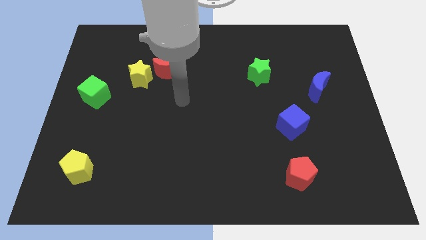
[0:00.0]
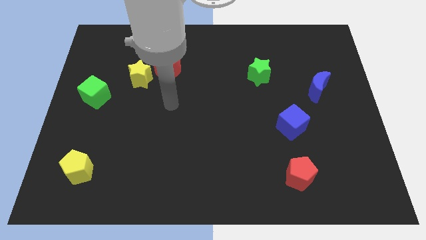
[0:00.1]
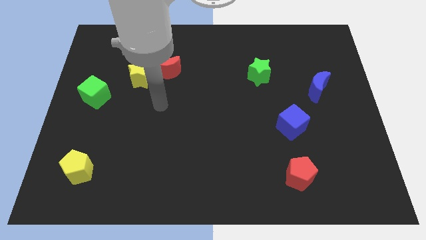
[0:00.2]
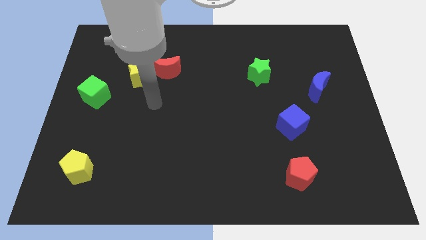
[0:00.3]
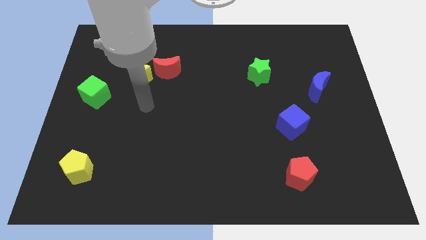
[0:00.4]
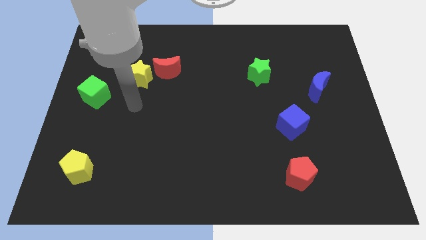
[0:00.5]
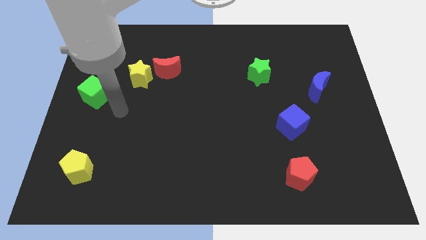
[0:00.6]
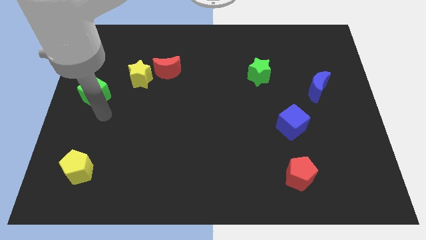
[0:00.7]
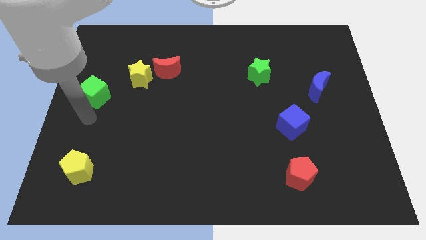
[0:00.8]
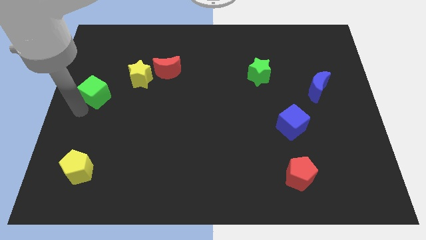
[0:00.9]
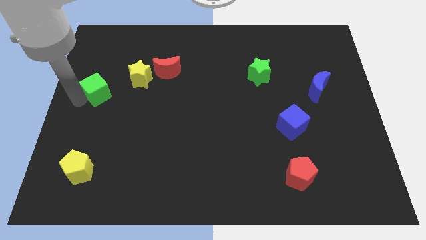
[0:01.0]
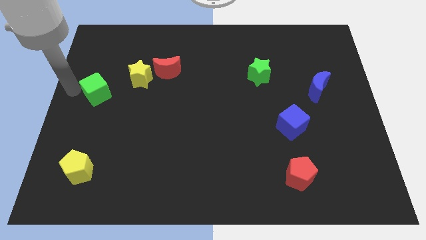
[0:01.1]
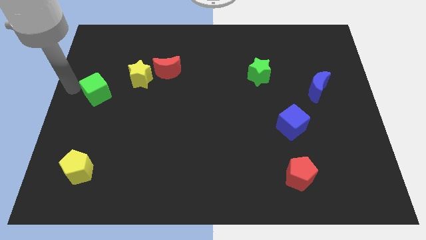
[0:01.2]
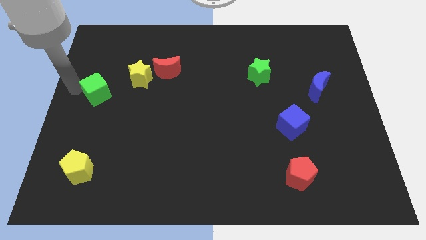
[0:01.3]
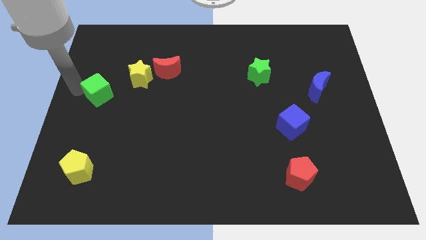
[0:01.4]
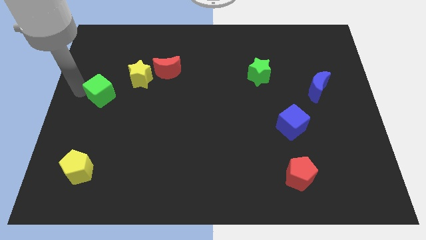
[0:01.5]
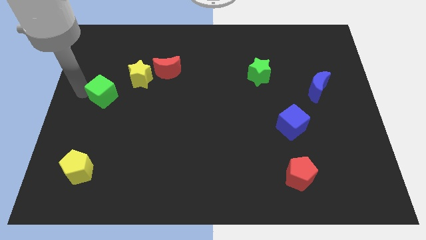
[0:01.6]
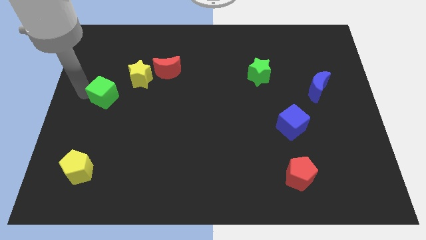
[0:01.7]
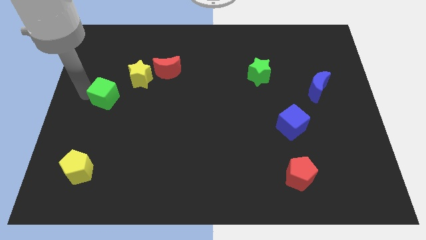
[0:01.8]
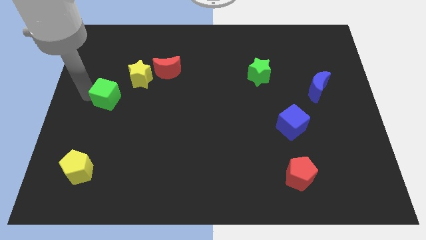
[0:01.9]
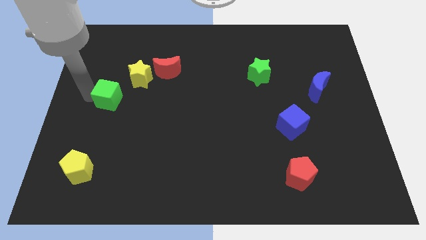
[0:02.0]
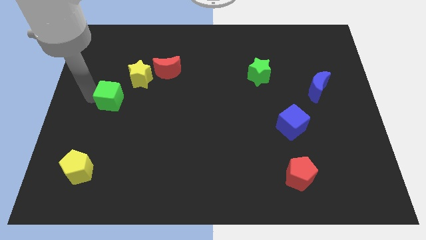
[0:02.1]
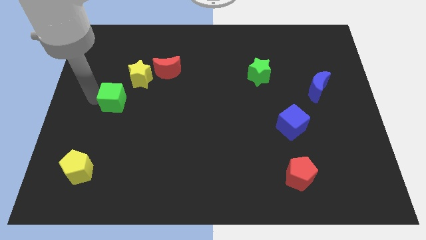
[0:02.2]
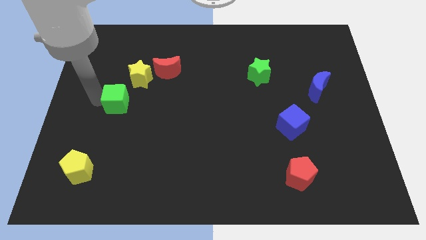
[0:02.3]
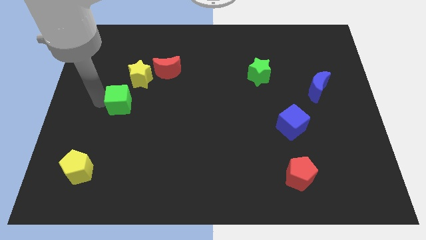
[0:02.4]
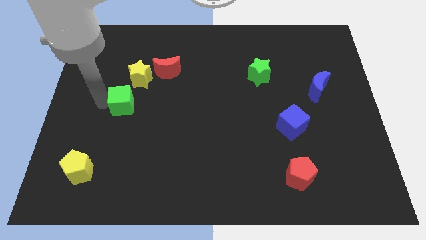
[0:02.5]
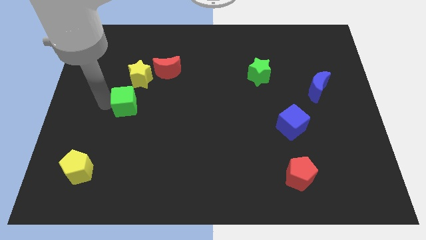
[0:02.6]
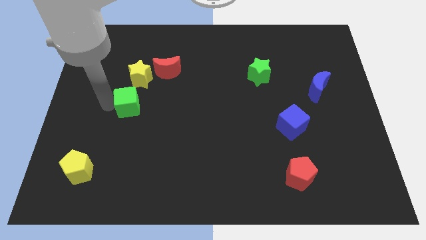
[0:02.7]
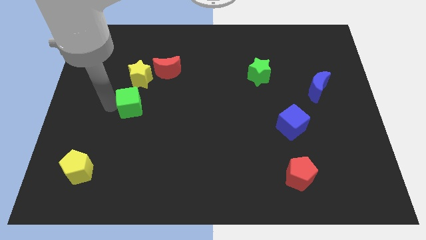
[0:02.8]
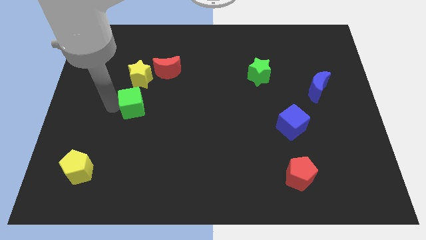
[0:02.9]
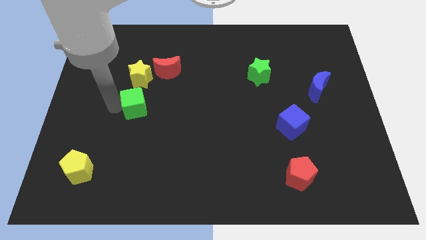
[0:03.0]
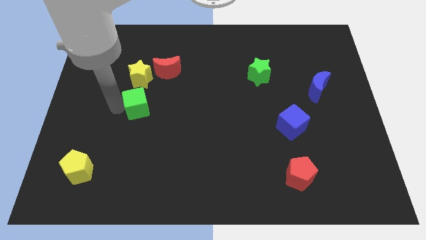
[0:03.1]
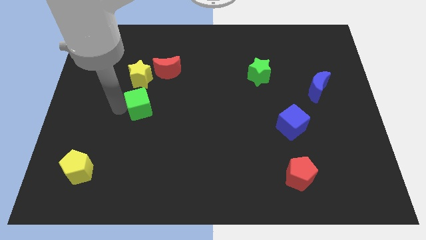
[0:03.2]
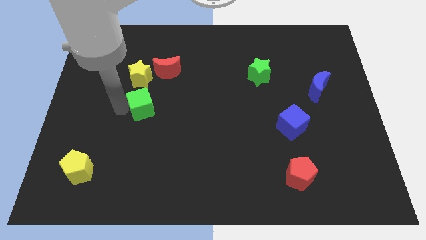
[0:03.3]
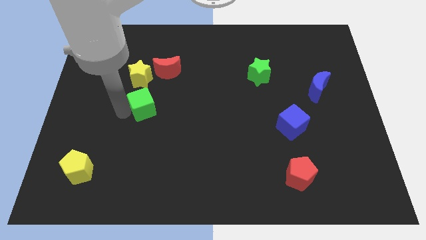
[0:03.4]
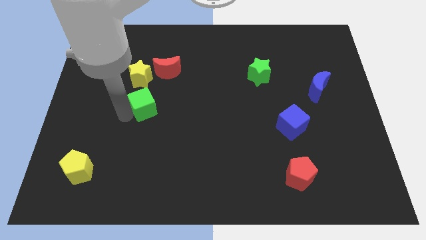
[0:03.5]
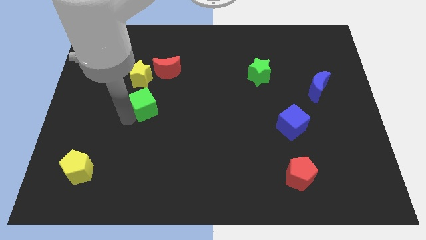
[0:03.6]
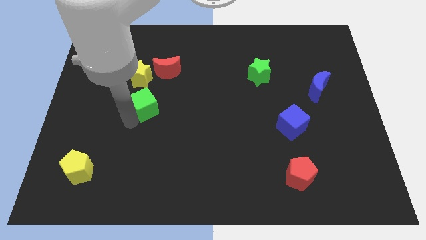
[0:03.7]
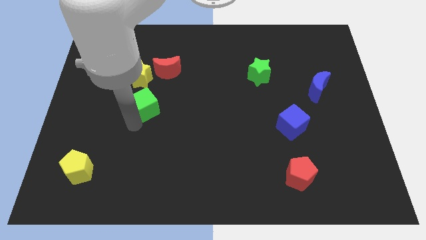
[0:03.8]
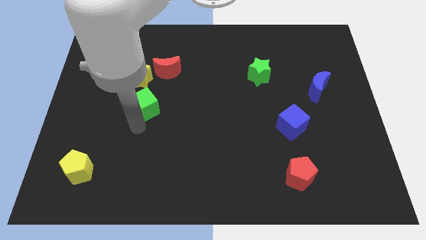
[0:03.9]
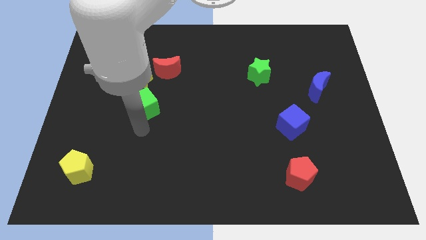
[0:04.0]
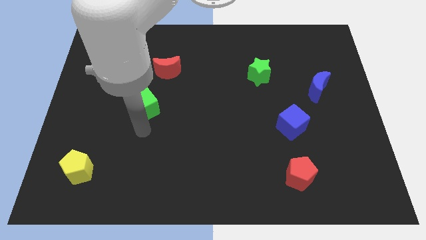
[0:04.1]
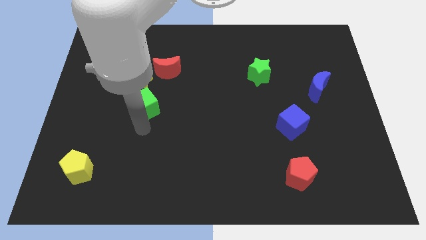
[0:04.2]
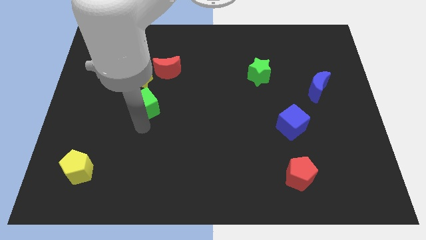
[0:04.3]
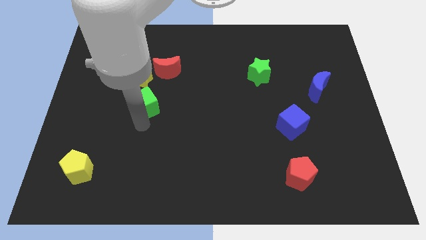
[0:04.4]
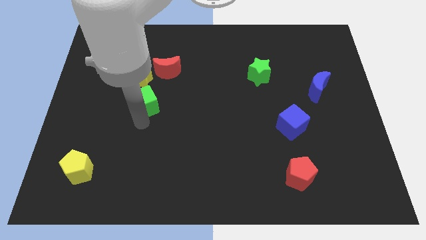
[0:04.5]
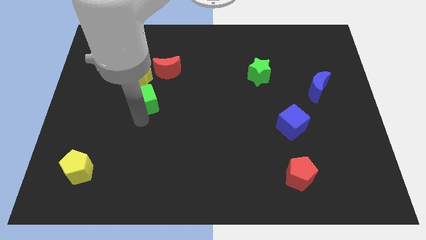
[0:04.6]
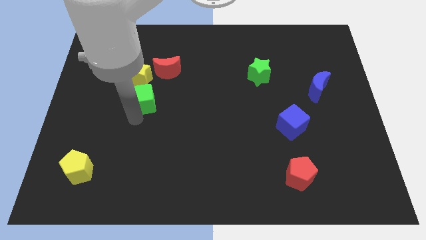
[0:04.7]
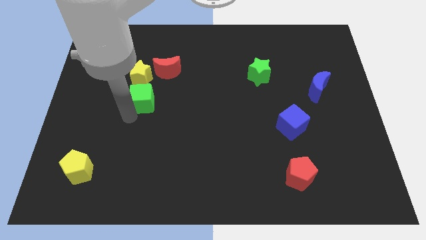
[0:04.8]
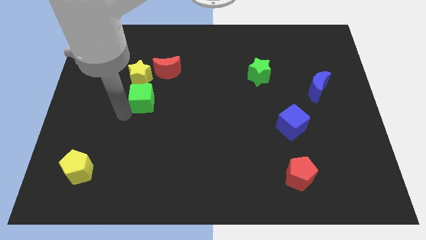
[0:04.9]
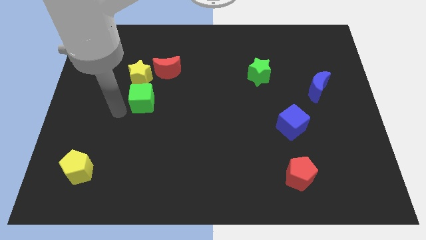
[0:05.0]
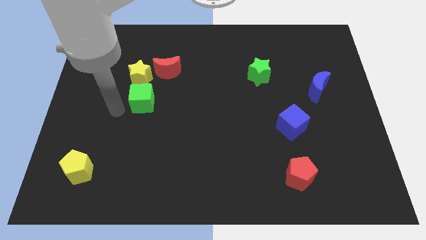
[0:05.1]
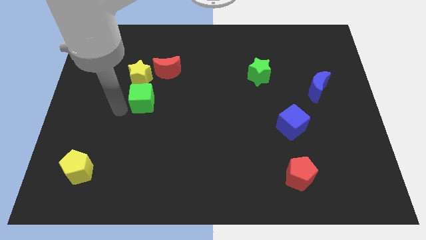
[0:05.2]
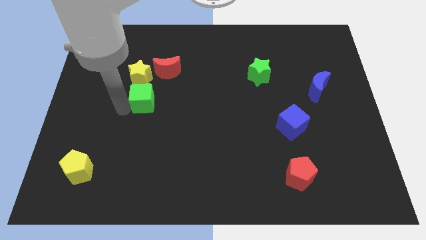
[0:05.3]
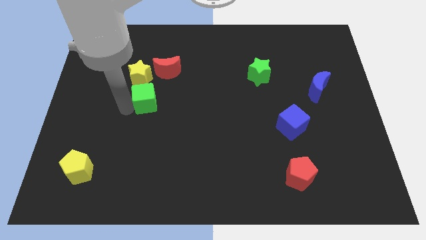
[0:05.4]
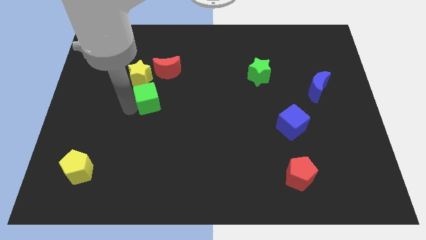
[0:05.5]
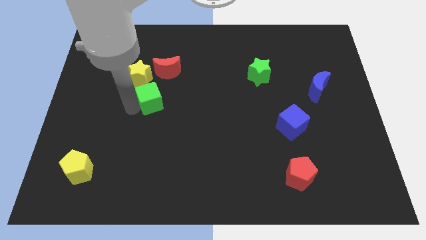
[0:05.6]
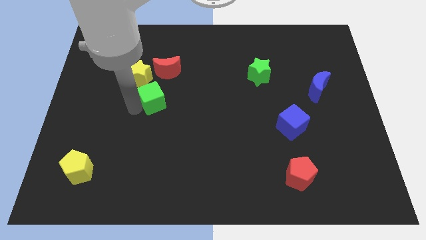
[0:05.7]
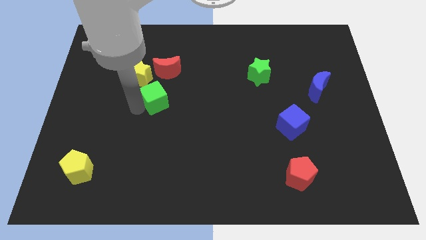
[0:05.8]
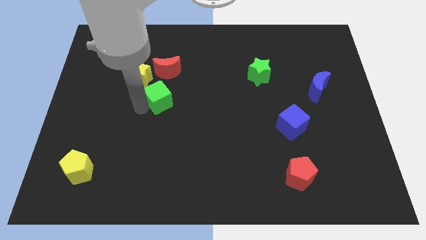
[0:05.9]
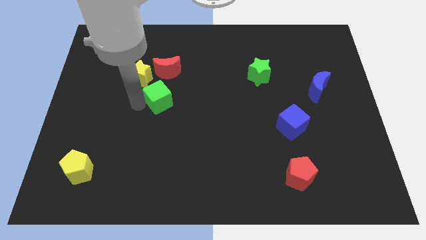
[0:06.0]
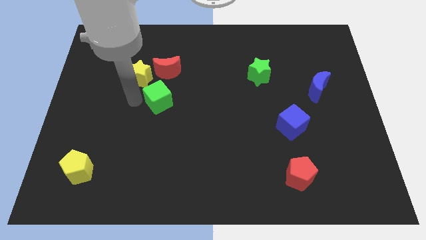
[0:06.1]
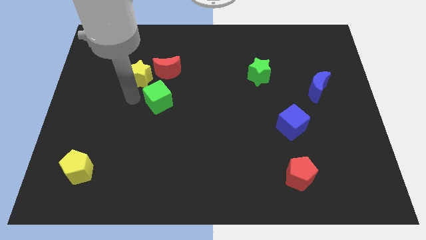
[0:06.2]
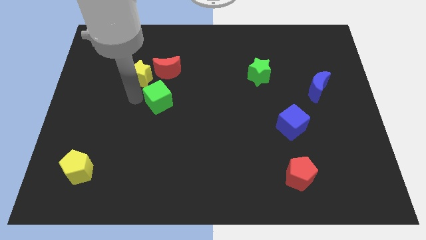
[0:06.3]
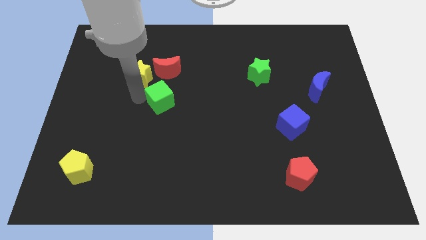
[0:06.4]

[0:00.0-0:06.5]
move the green cube to the center
